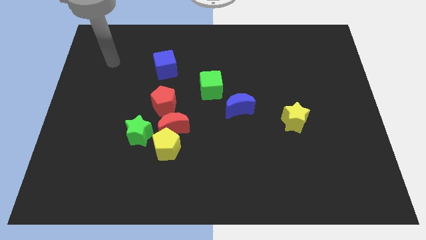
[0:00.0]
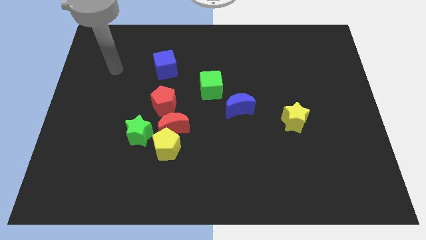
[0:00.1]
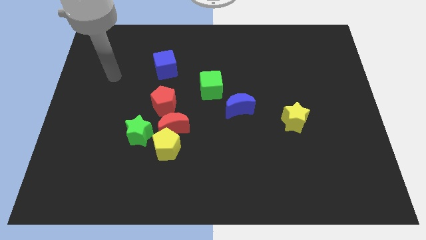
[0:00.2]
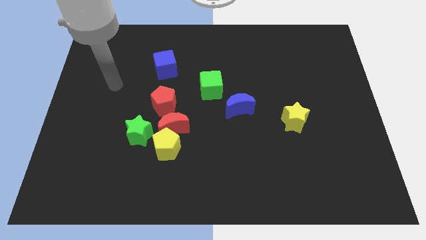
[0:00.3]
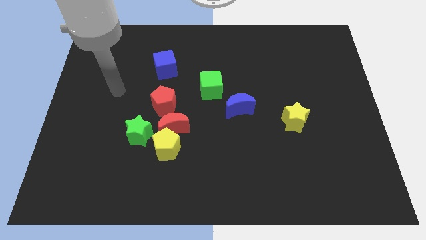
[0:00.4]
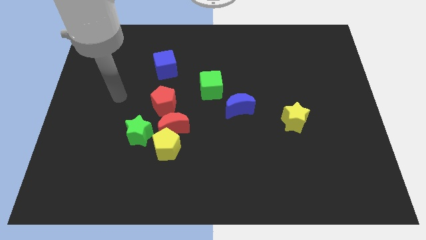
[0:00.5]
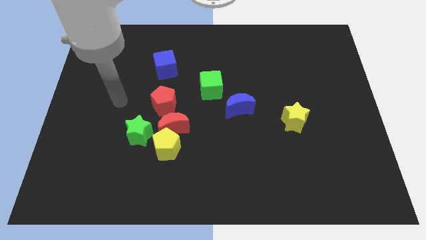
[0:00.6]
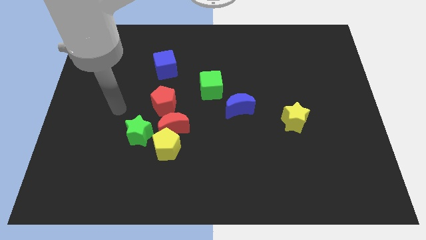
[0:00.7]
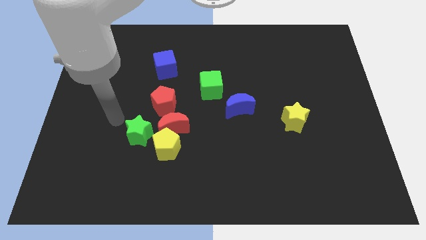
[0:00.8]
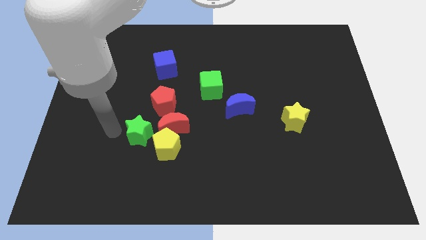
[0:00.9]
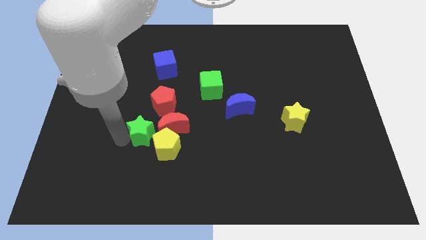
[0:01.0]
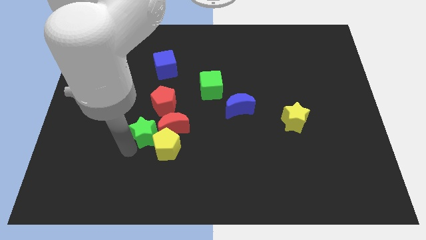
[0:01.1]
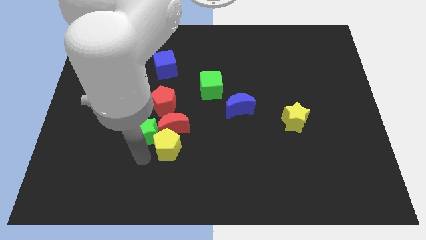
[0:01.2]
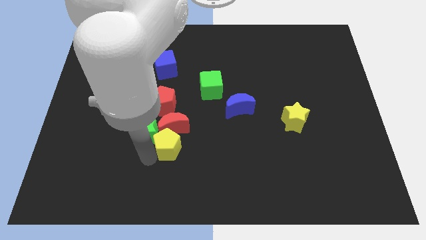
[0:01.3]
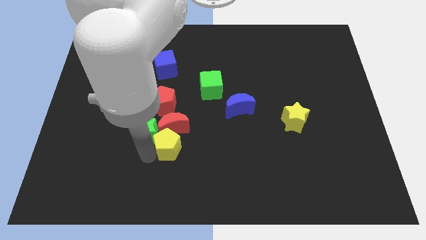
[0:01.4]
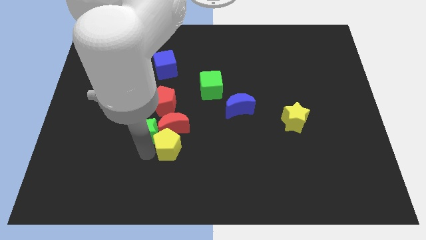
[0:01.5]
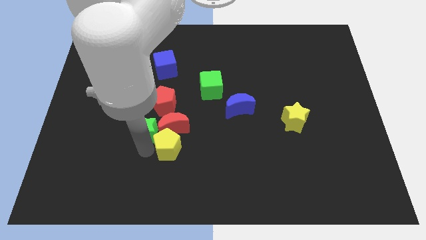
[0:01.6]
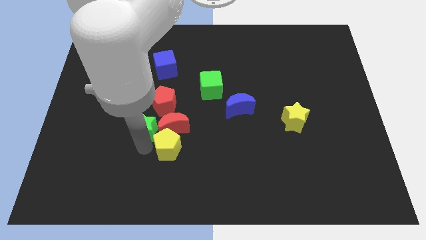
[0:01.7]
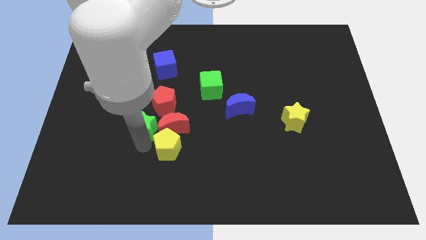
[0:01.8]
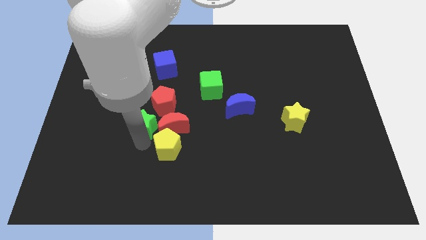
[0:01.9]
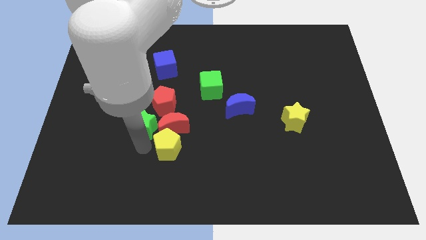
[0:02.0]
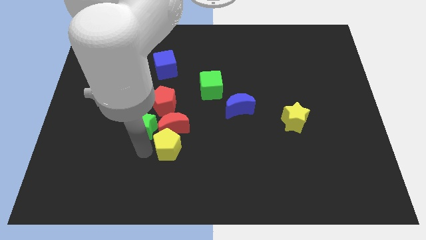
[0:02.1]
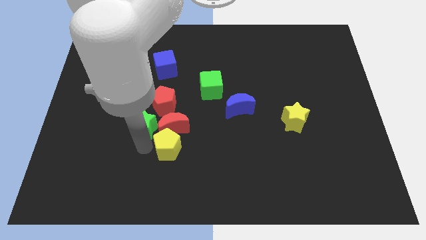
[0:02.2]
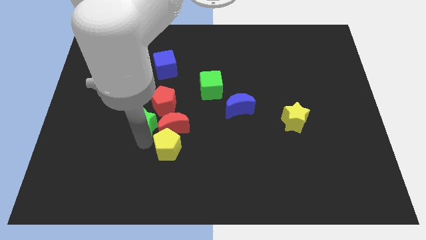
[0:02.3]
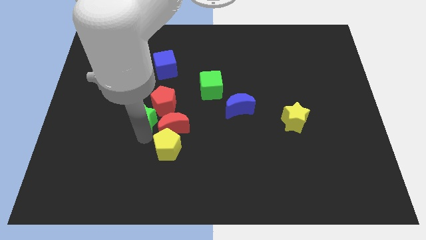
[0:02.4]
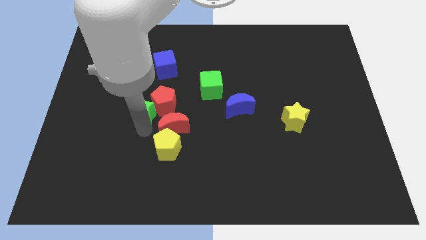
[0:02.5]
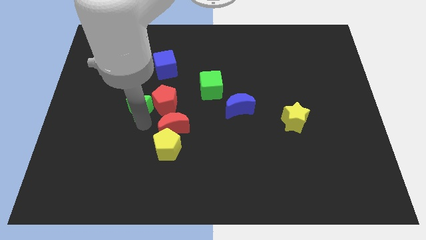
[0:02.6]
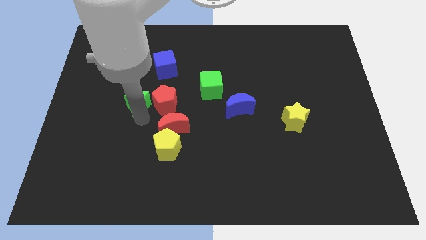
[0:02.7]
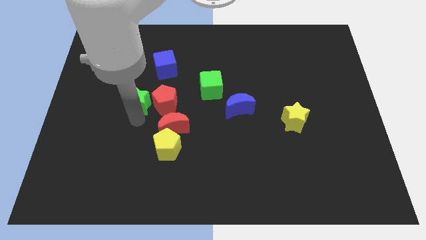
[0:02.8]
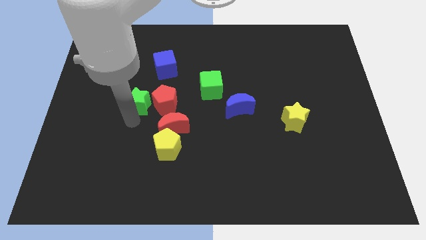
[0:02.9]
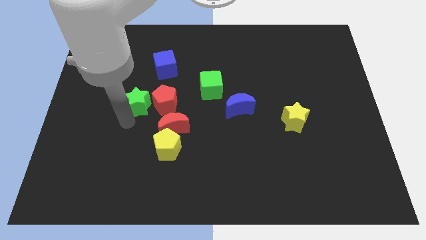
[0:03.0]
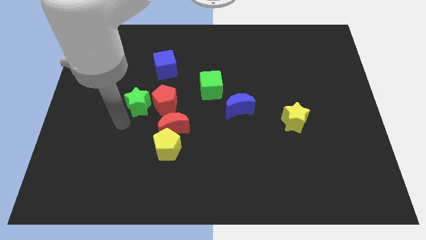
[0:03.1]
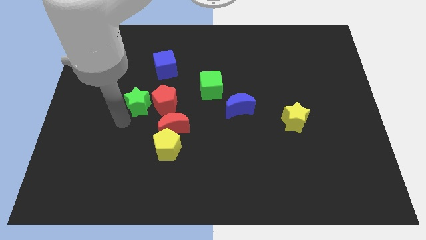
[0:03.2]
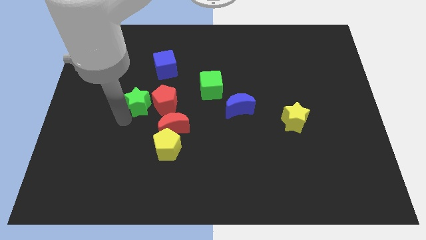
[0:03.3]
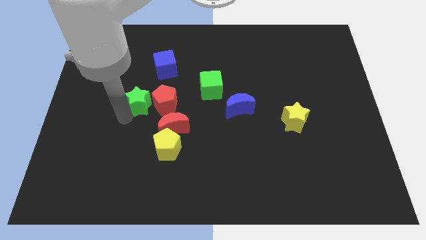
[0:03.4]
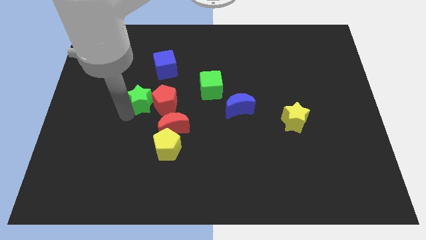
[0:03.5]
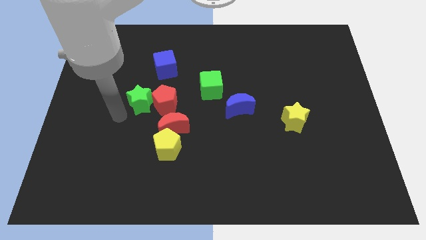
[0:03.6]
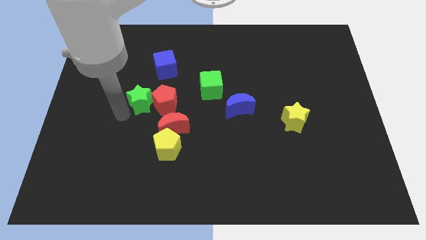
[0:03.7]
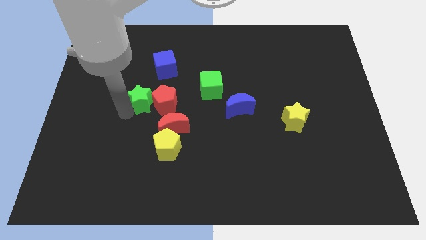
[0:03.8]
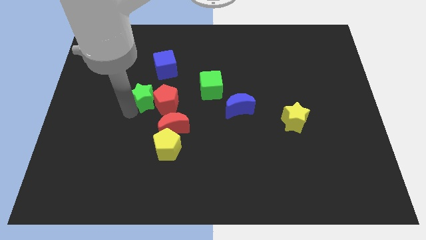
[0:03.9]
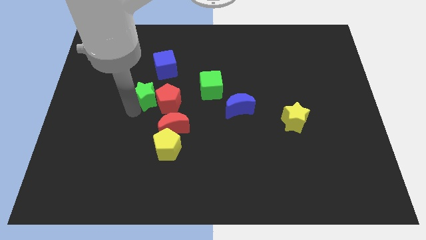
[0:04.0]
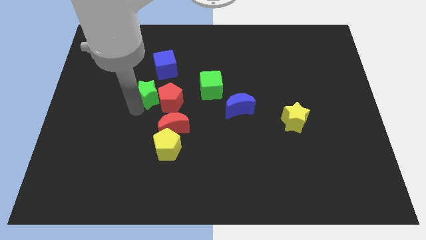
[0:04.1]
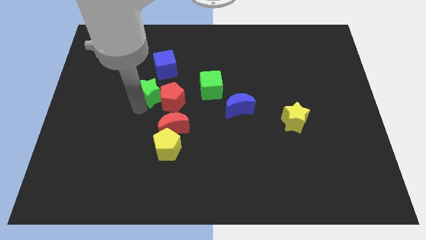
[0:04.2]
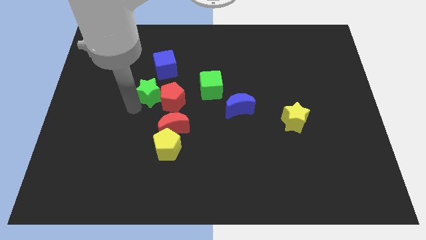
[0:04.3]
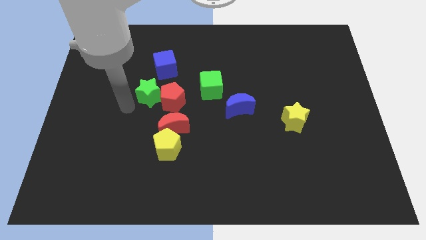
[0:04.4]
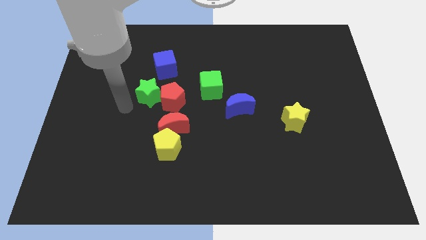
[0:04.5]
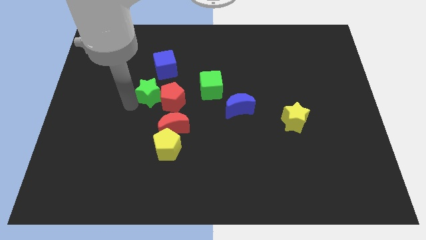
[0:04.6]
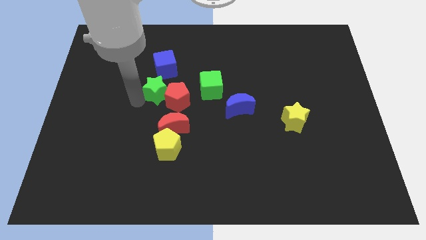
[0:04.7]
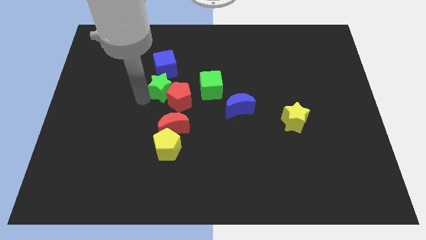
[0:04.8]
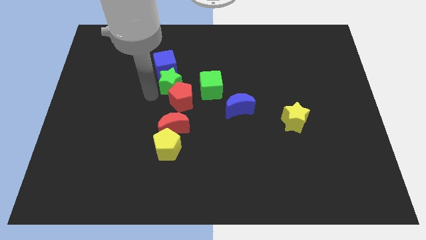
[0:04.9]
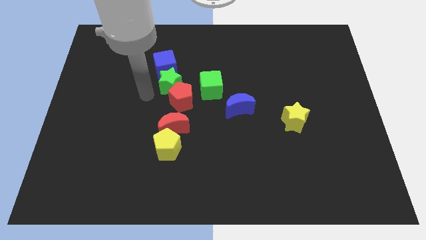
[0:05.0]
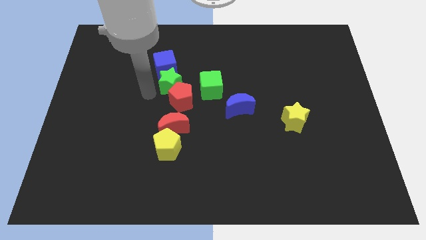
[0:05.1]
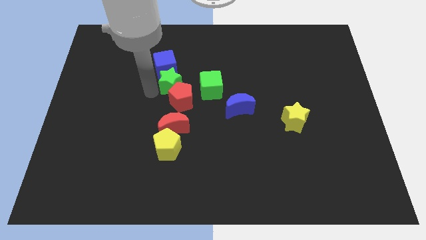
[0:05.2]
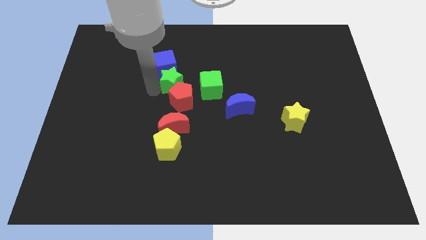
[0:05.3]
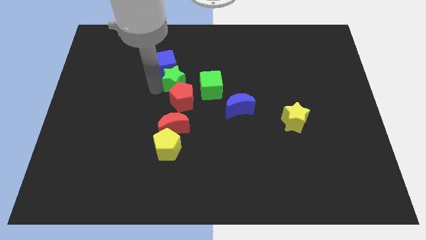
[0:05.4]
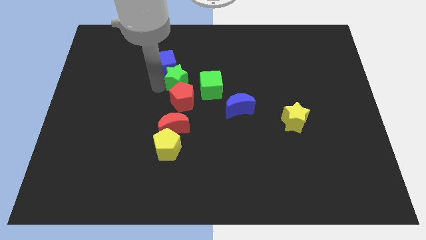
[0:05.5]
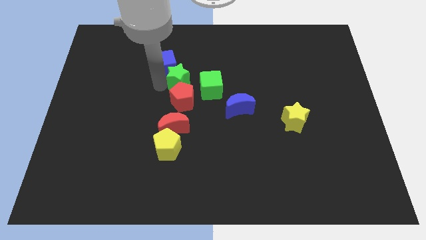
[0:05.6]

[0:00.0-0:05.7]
slide the green star right of the blue cube

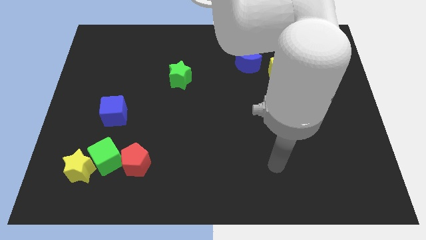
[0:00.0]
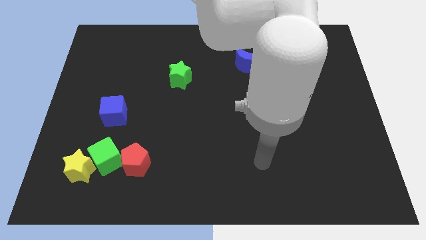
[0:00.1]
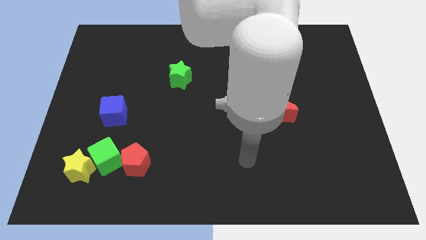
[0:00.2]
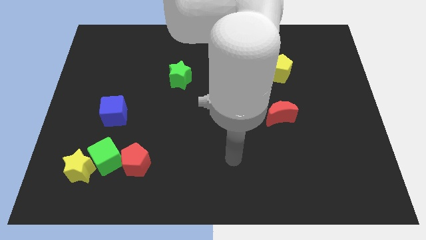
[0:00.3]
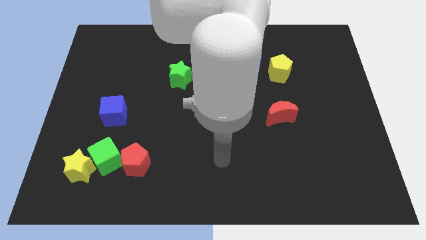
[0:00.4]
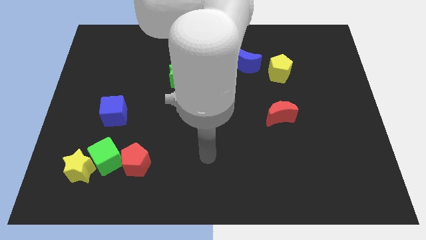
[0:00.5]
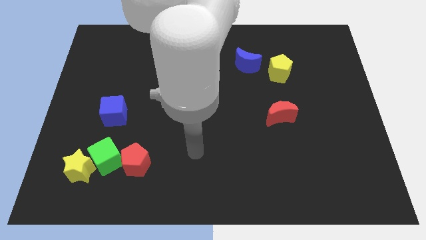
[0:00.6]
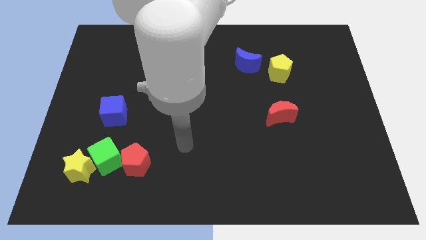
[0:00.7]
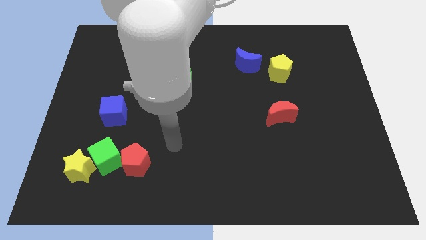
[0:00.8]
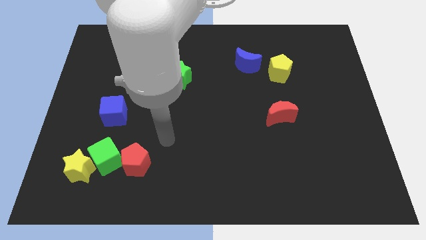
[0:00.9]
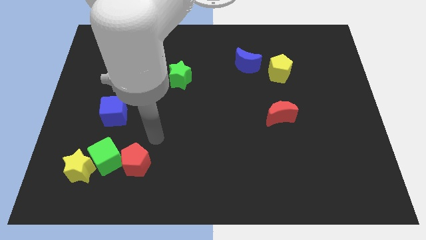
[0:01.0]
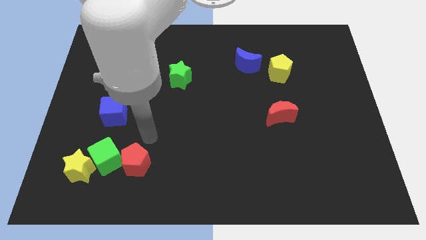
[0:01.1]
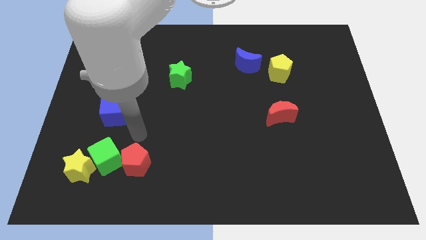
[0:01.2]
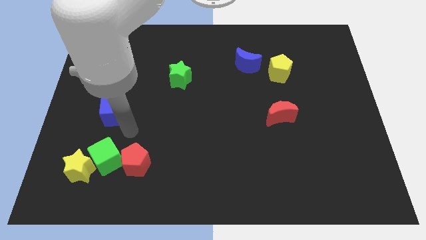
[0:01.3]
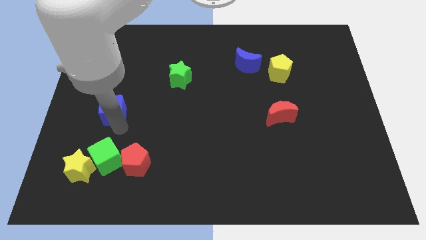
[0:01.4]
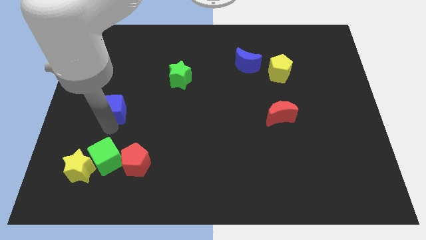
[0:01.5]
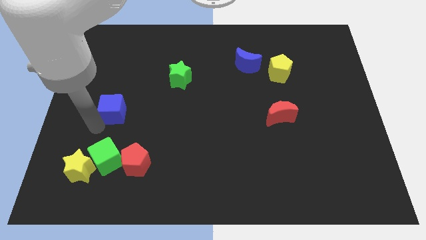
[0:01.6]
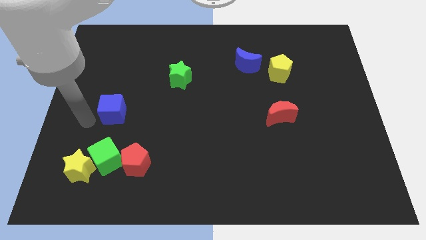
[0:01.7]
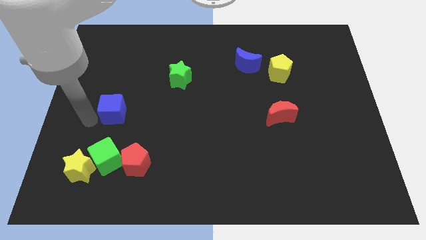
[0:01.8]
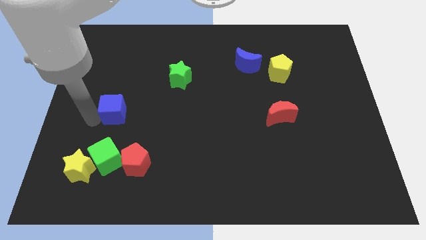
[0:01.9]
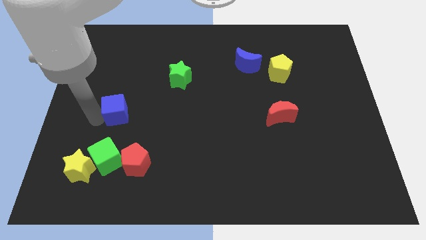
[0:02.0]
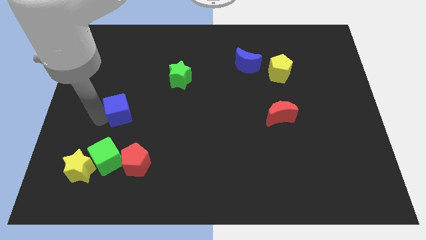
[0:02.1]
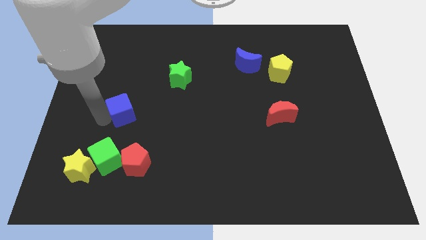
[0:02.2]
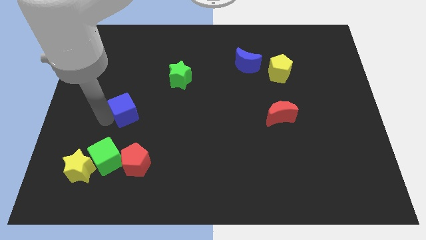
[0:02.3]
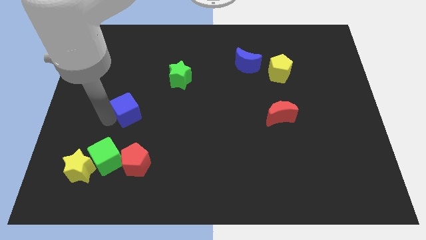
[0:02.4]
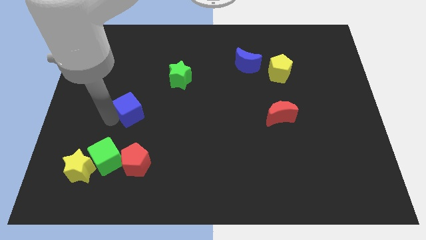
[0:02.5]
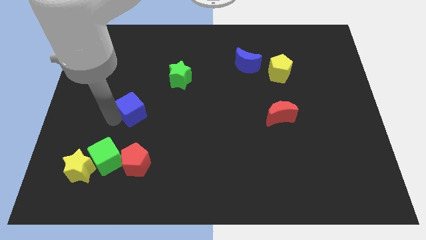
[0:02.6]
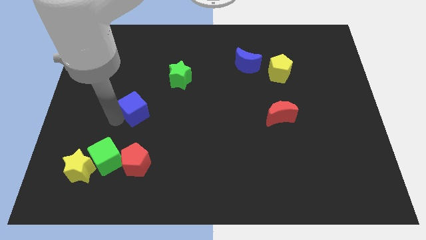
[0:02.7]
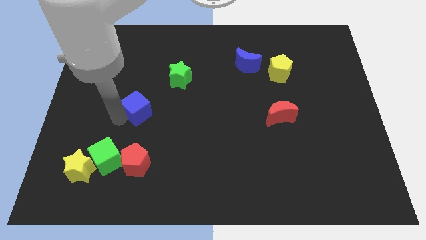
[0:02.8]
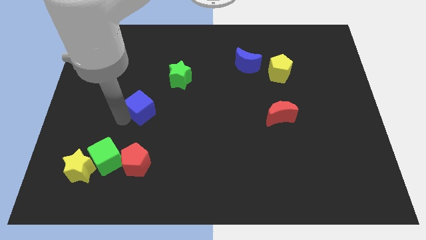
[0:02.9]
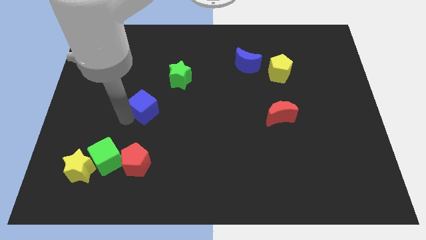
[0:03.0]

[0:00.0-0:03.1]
slide the blue cube diagonally down and to the left of the green star
